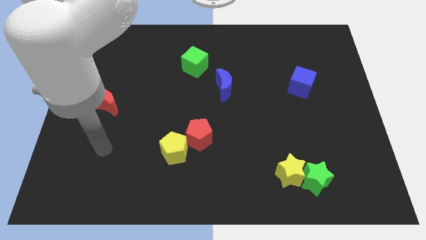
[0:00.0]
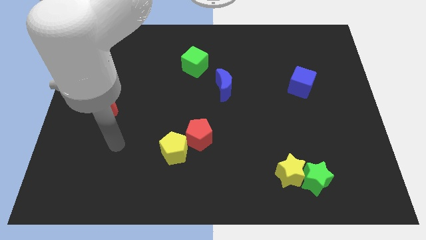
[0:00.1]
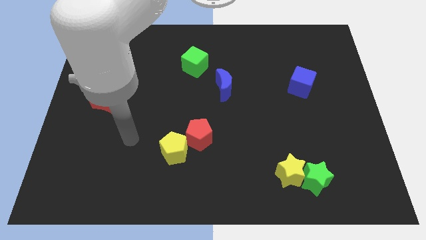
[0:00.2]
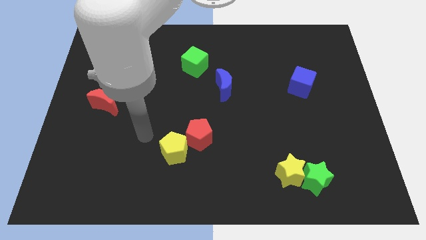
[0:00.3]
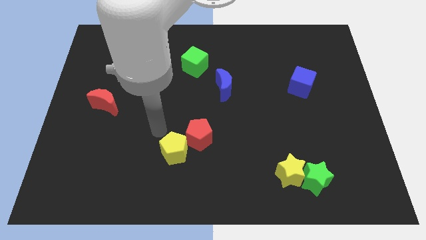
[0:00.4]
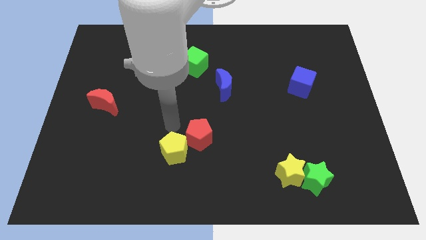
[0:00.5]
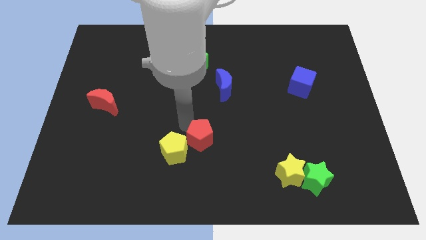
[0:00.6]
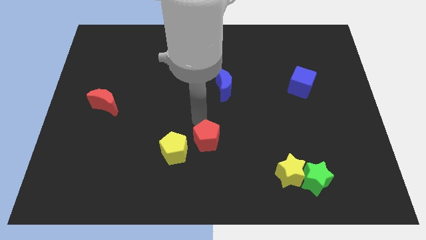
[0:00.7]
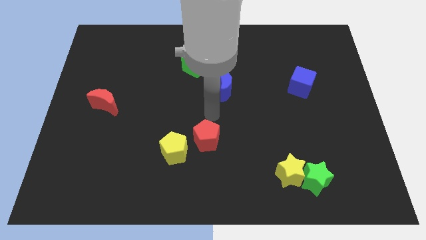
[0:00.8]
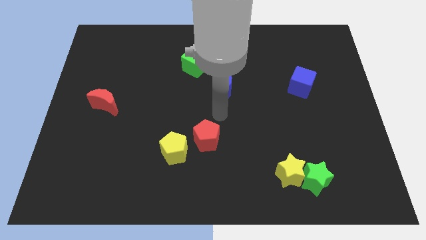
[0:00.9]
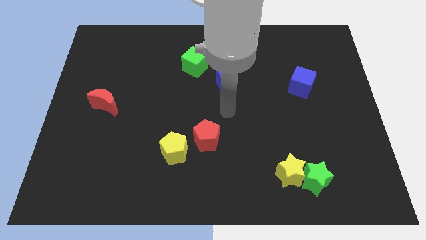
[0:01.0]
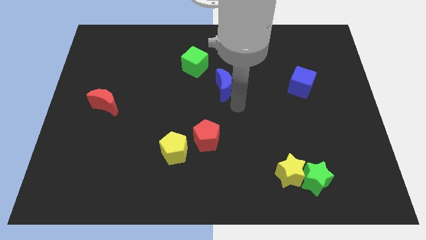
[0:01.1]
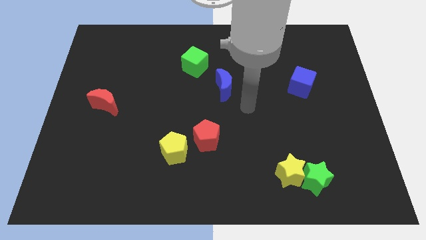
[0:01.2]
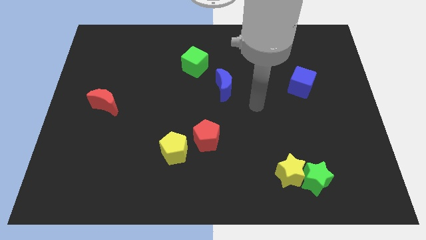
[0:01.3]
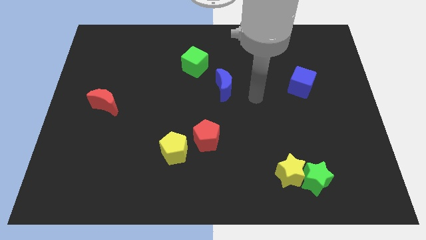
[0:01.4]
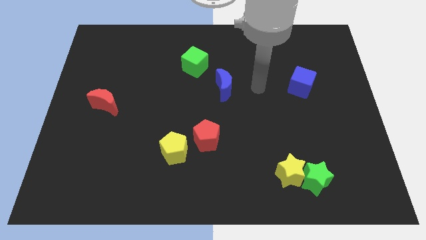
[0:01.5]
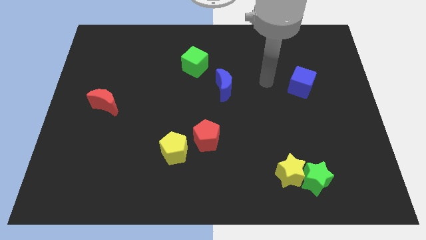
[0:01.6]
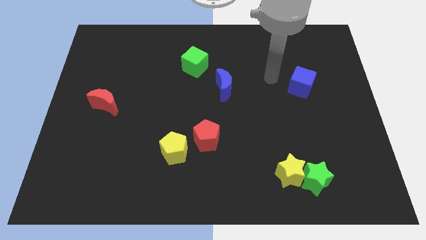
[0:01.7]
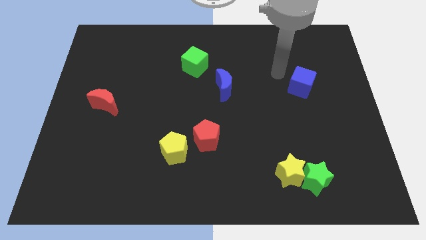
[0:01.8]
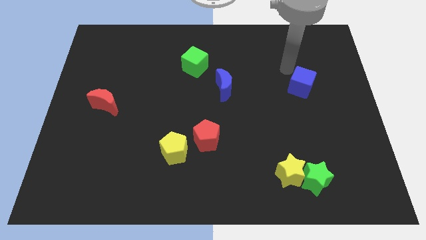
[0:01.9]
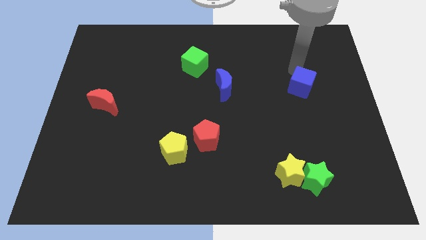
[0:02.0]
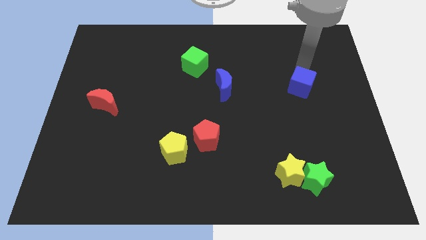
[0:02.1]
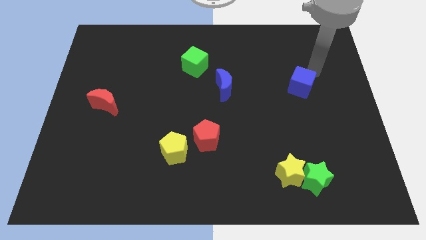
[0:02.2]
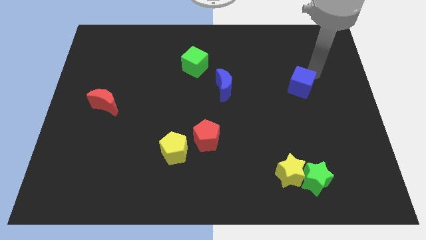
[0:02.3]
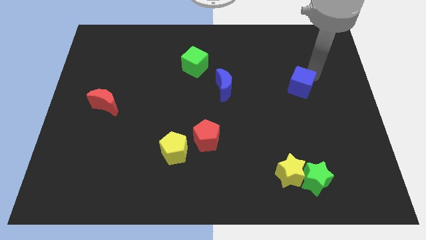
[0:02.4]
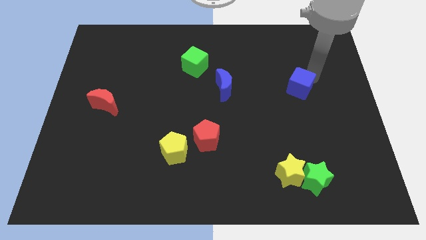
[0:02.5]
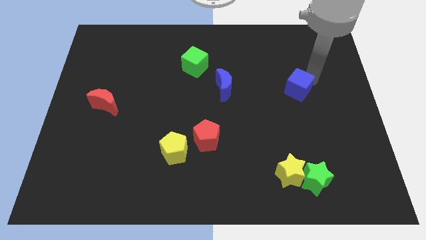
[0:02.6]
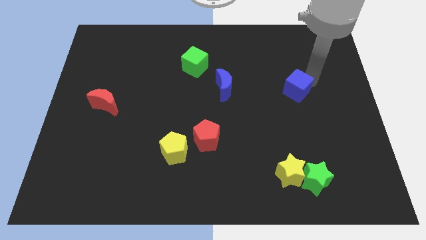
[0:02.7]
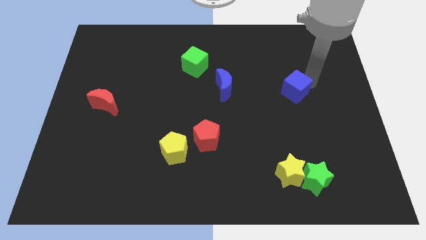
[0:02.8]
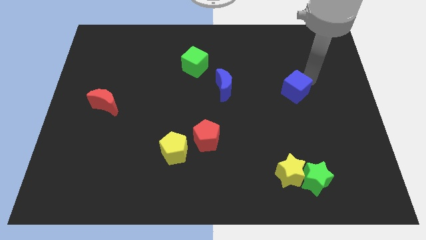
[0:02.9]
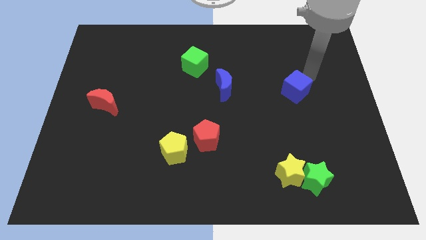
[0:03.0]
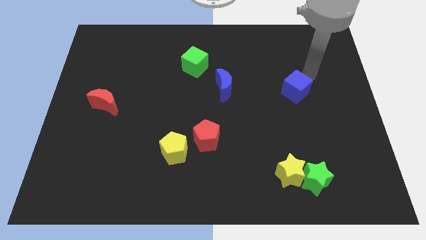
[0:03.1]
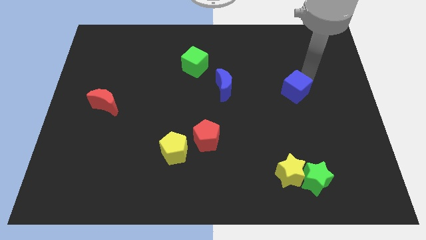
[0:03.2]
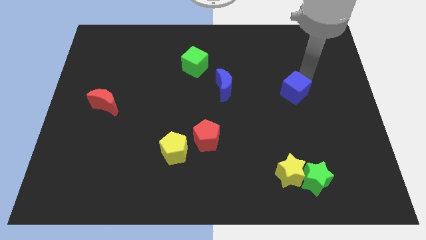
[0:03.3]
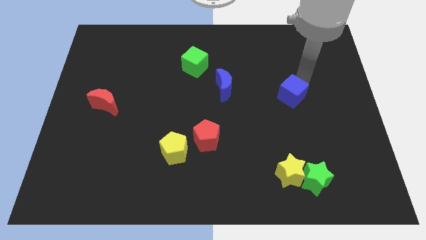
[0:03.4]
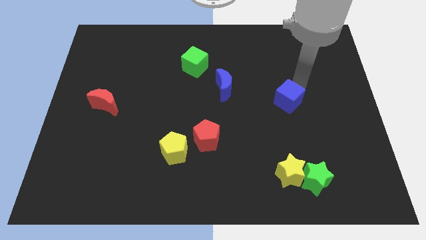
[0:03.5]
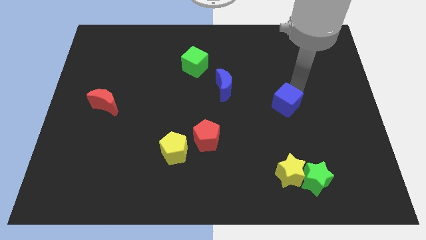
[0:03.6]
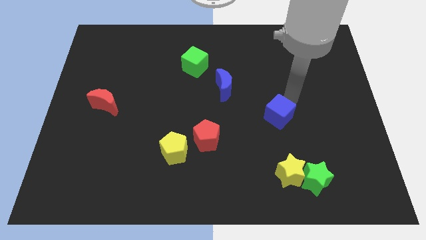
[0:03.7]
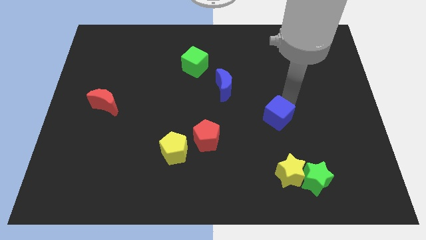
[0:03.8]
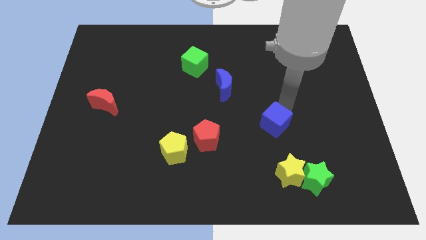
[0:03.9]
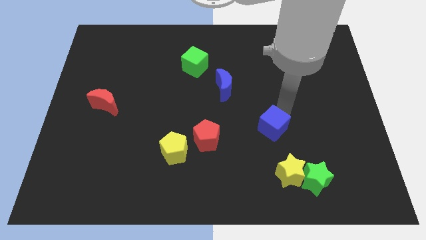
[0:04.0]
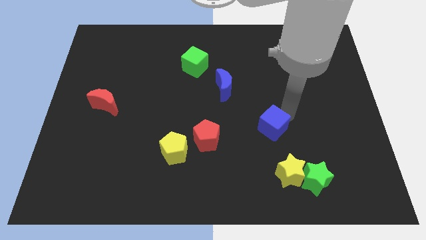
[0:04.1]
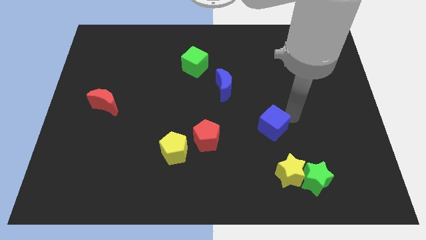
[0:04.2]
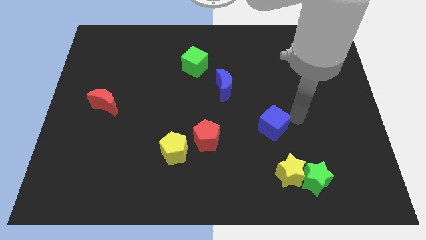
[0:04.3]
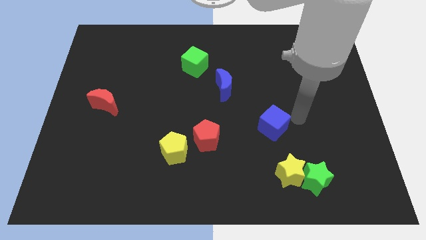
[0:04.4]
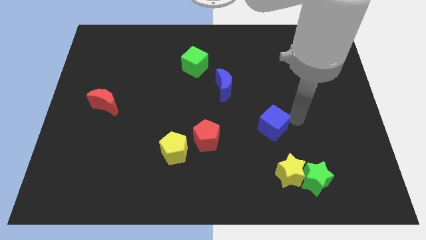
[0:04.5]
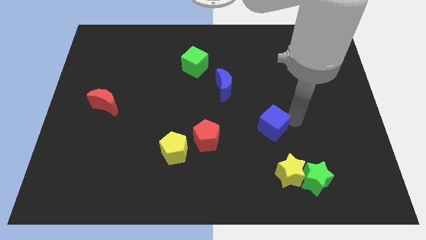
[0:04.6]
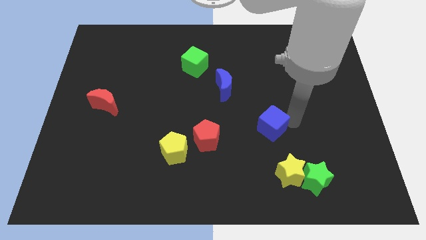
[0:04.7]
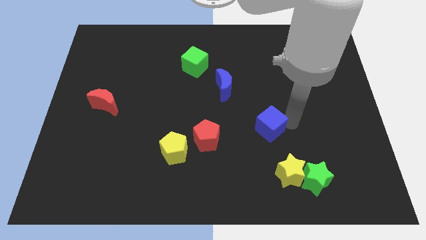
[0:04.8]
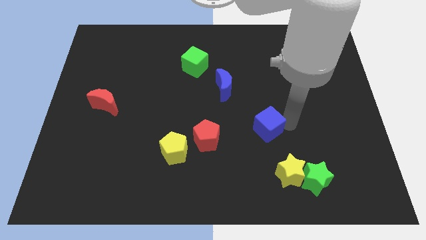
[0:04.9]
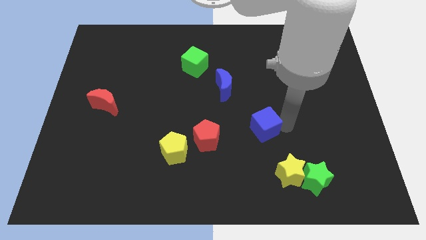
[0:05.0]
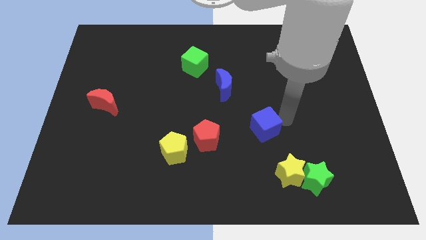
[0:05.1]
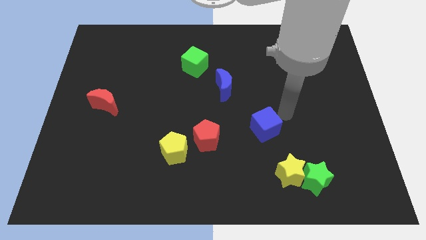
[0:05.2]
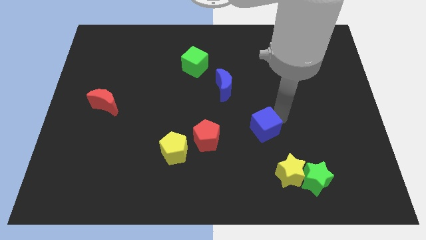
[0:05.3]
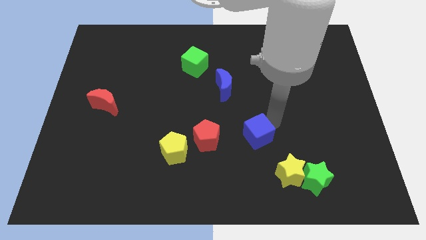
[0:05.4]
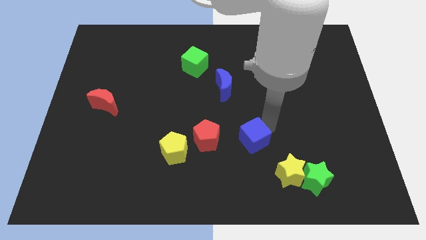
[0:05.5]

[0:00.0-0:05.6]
push the blue cube downwards and to the left diagonally

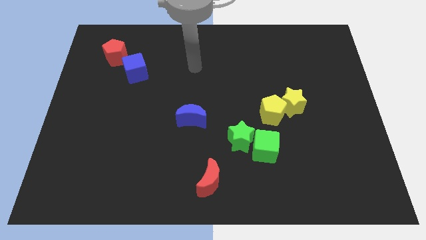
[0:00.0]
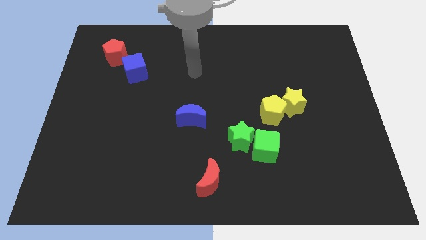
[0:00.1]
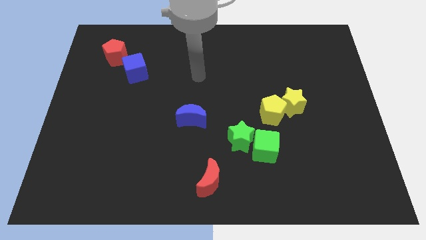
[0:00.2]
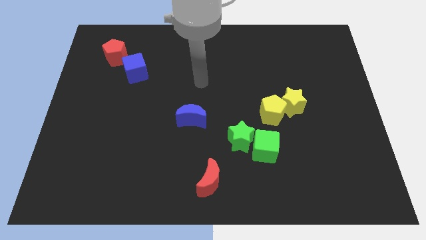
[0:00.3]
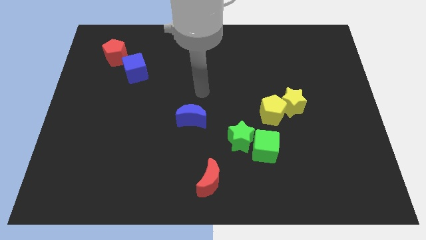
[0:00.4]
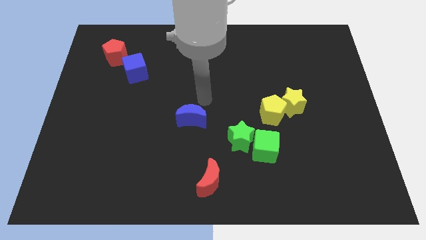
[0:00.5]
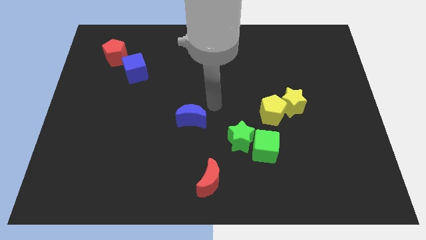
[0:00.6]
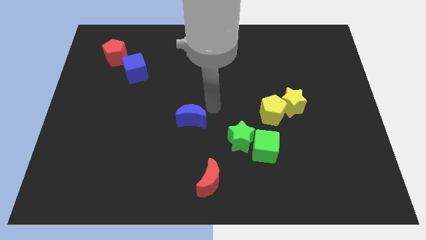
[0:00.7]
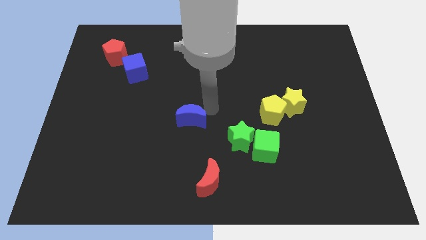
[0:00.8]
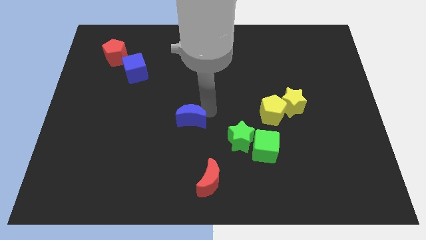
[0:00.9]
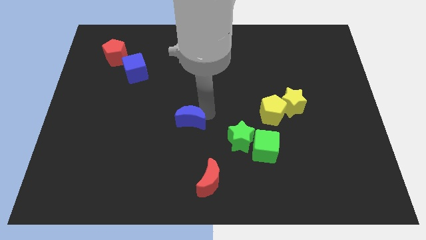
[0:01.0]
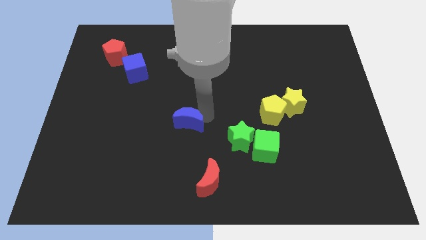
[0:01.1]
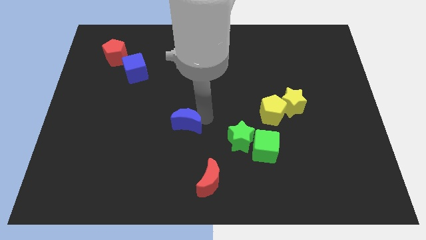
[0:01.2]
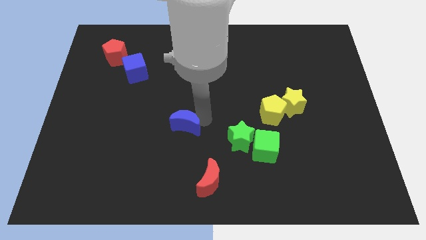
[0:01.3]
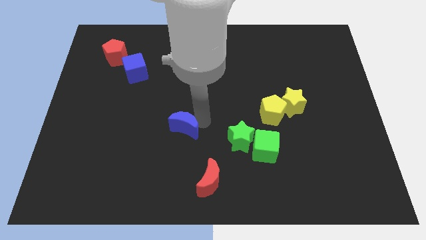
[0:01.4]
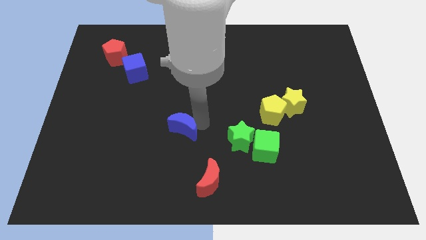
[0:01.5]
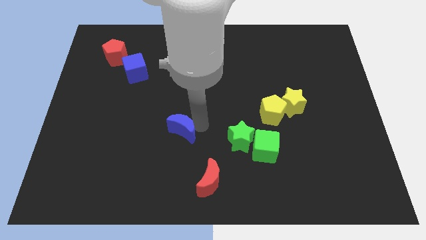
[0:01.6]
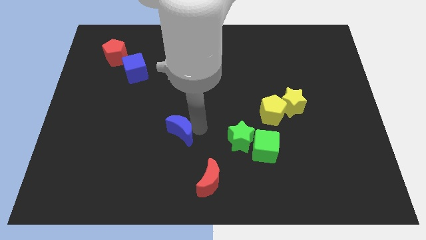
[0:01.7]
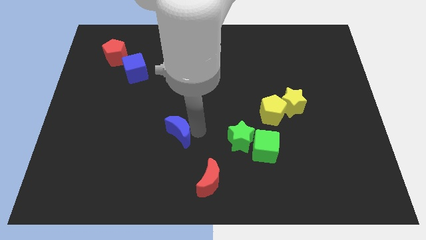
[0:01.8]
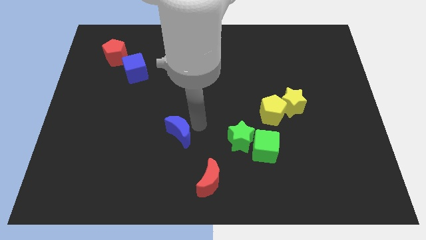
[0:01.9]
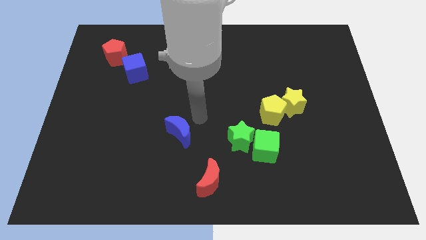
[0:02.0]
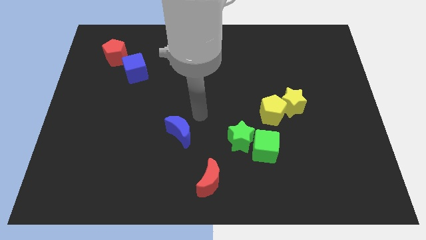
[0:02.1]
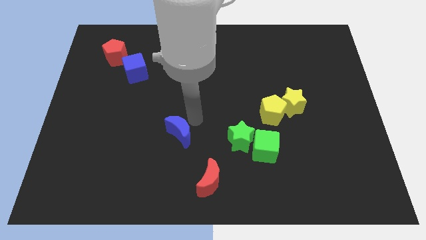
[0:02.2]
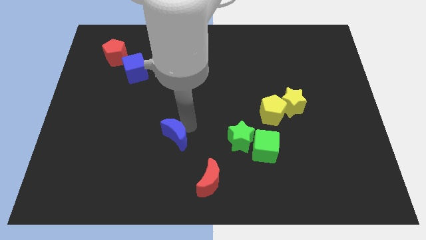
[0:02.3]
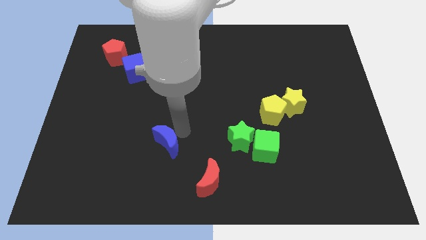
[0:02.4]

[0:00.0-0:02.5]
push the blue moon diagonally down and left a little bit
